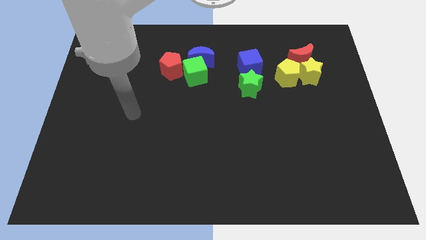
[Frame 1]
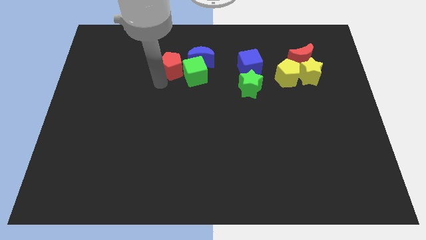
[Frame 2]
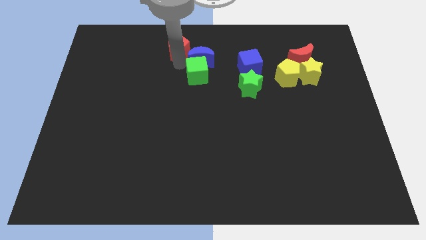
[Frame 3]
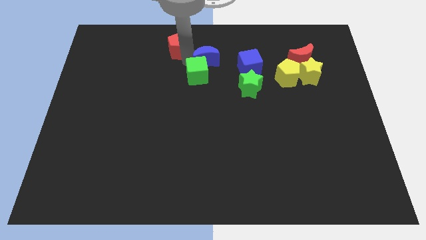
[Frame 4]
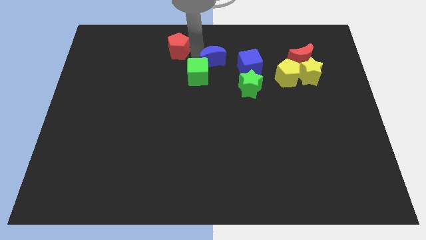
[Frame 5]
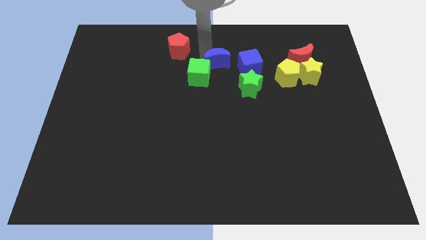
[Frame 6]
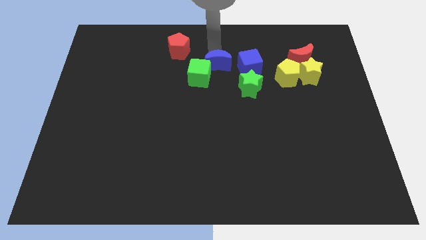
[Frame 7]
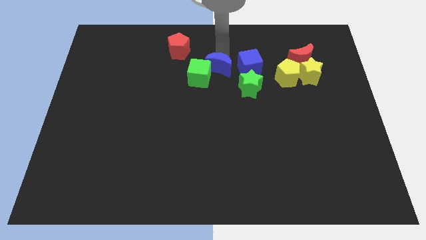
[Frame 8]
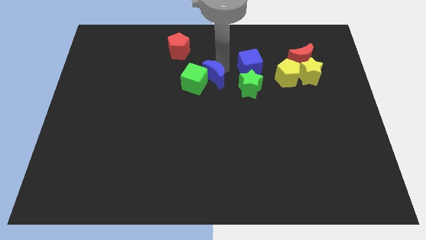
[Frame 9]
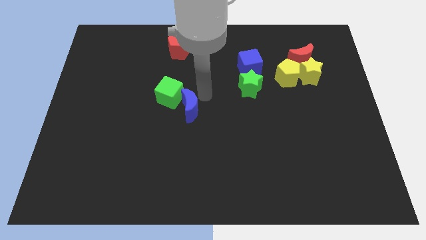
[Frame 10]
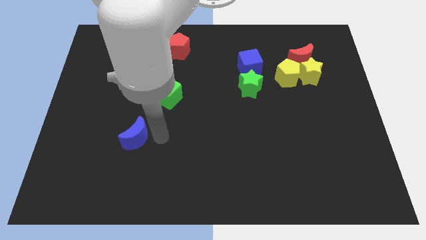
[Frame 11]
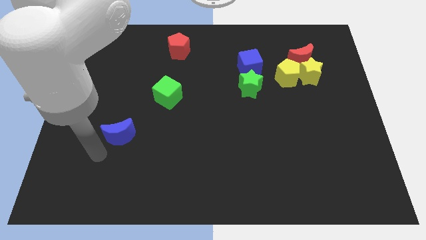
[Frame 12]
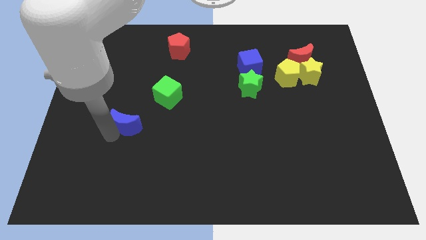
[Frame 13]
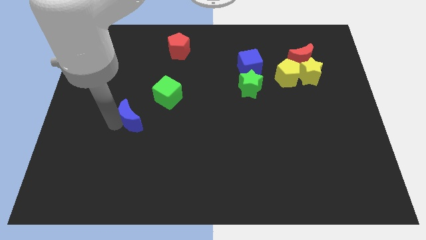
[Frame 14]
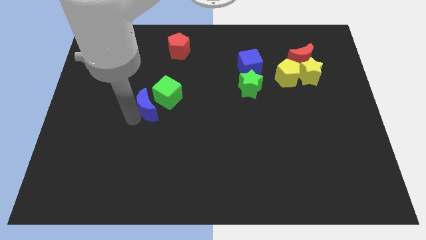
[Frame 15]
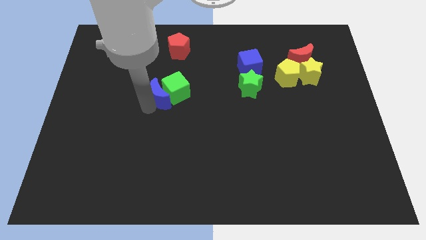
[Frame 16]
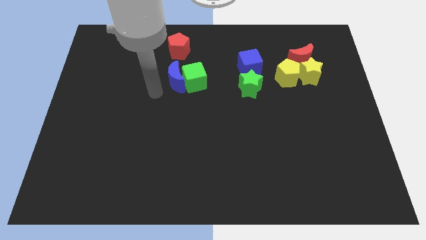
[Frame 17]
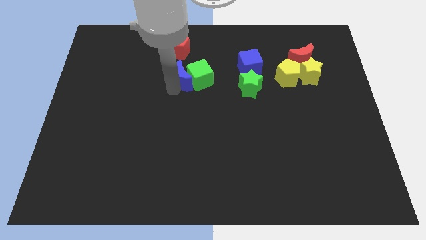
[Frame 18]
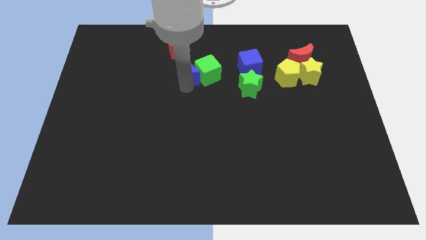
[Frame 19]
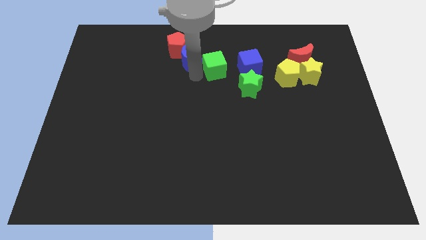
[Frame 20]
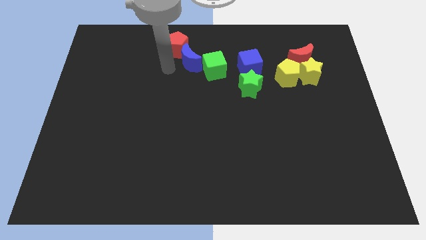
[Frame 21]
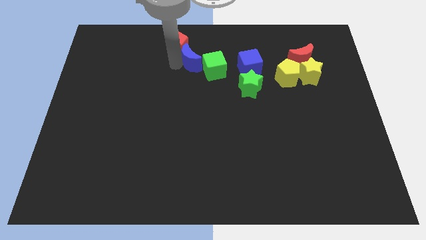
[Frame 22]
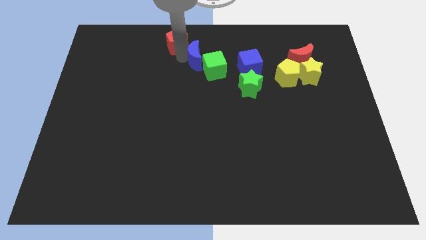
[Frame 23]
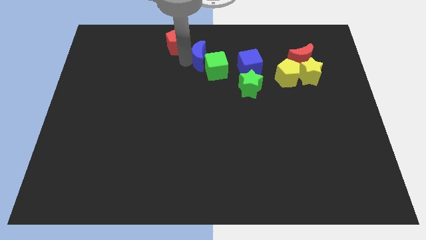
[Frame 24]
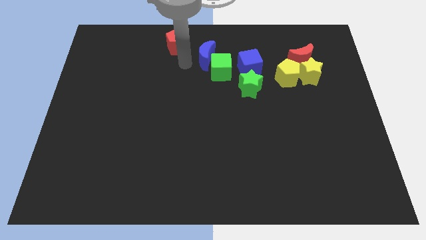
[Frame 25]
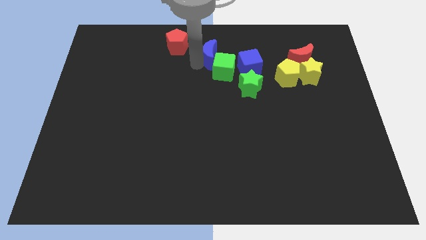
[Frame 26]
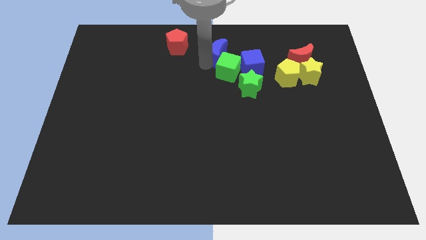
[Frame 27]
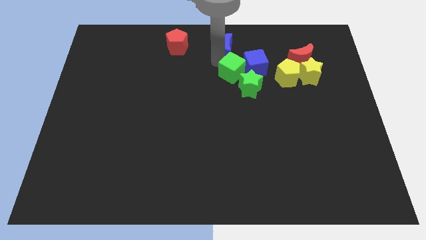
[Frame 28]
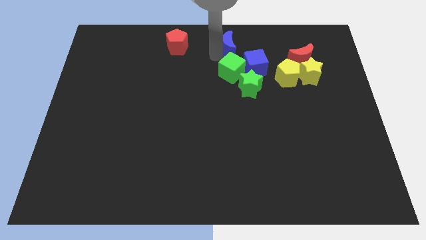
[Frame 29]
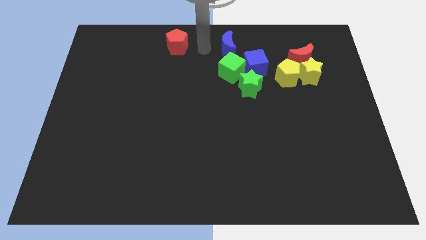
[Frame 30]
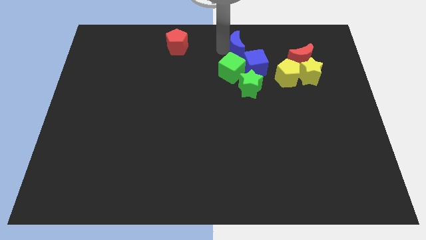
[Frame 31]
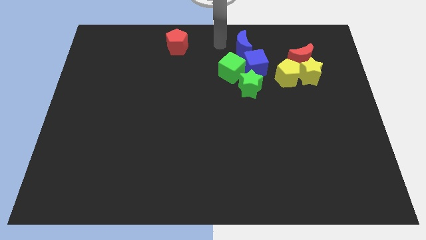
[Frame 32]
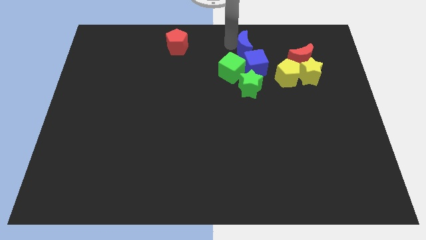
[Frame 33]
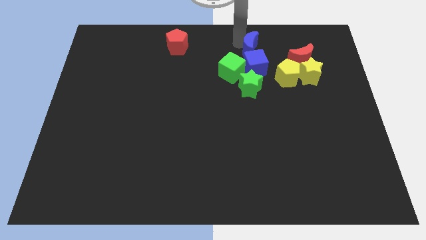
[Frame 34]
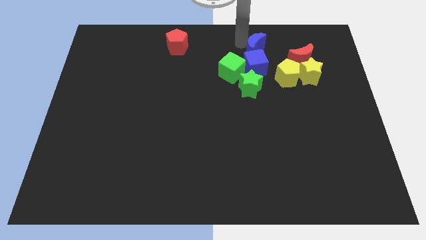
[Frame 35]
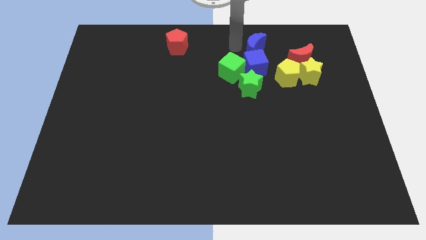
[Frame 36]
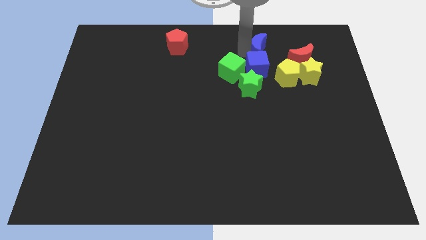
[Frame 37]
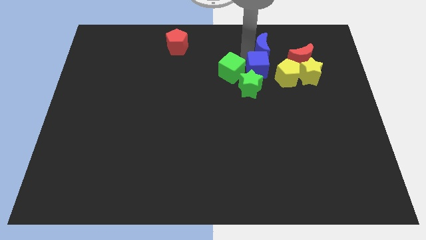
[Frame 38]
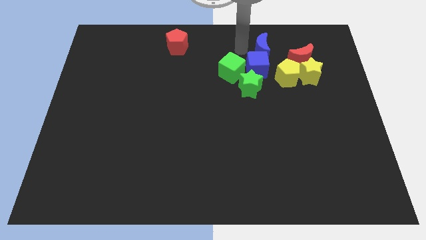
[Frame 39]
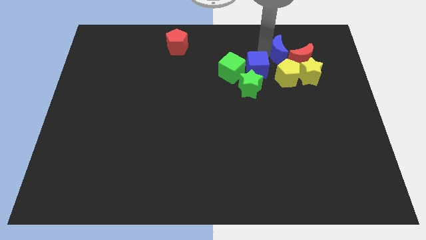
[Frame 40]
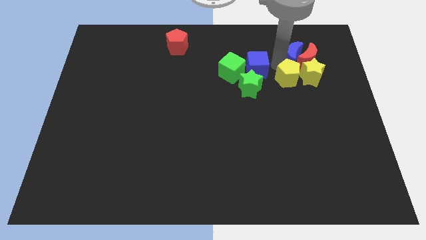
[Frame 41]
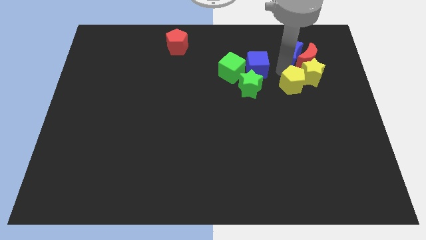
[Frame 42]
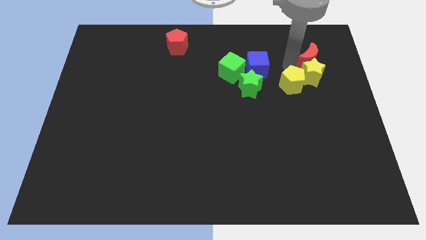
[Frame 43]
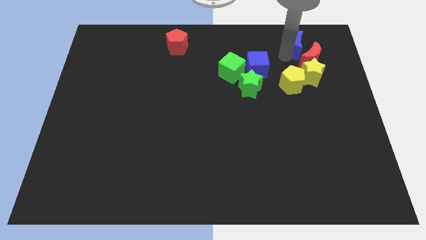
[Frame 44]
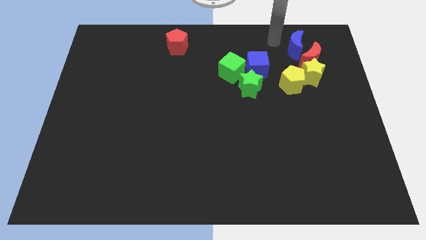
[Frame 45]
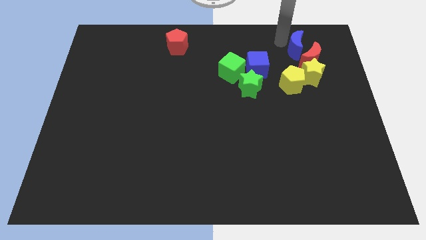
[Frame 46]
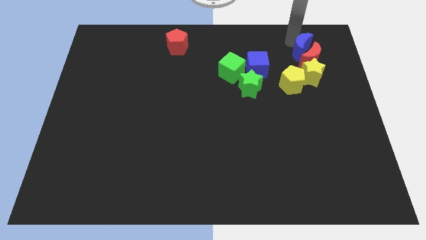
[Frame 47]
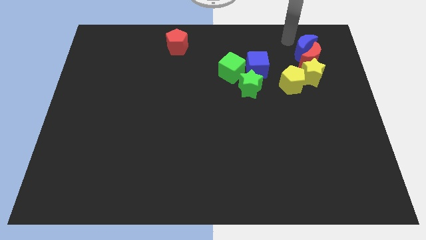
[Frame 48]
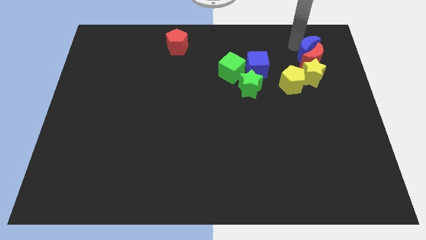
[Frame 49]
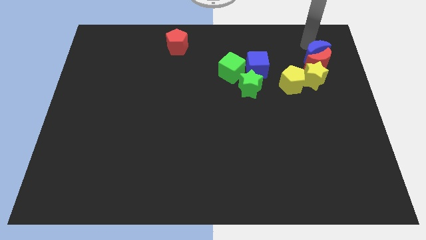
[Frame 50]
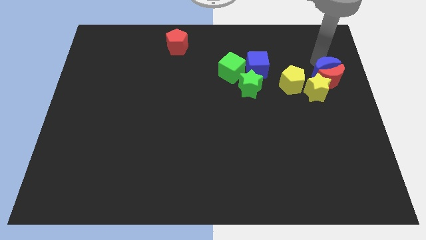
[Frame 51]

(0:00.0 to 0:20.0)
slide the blue moon to the right of the yellow pentagon

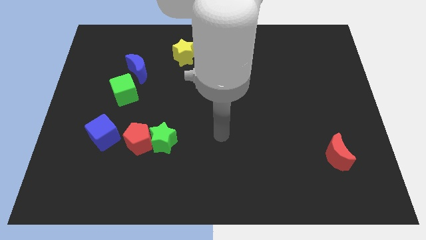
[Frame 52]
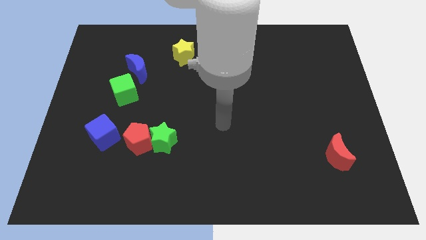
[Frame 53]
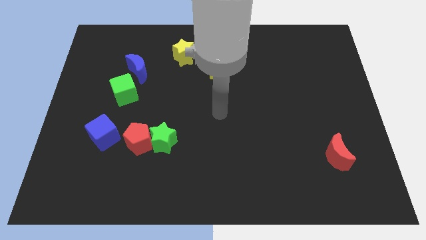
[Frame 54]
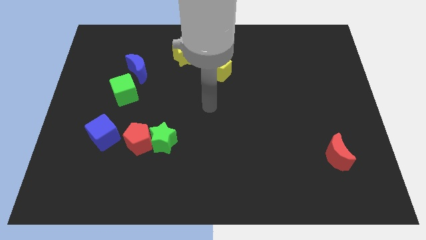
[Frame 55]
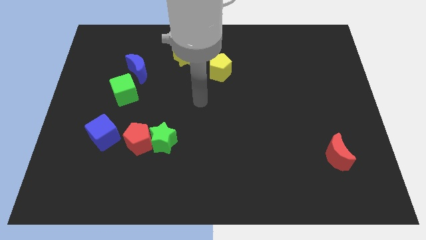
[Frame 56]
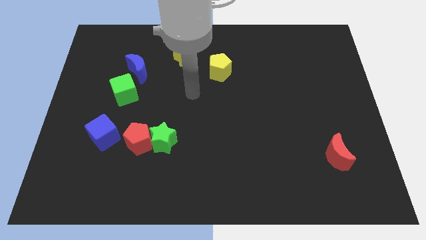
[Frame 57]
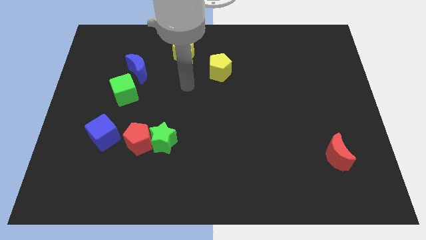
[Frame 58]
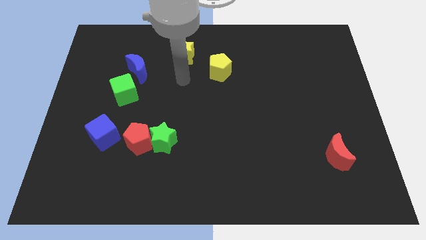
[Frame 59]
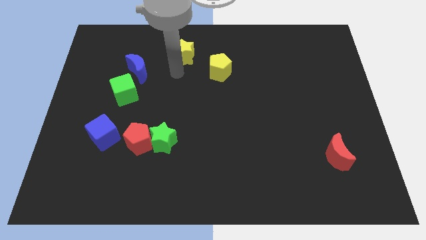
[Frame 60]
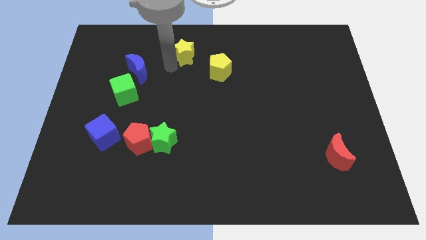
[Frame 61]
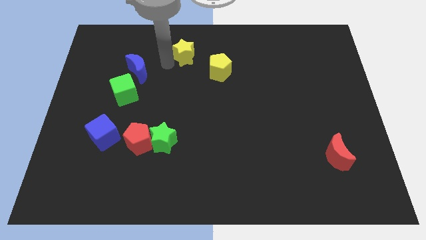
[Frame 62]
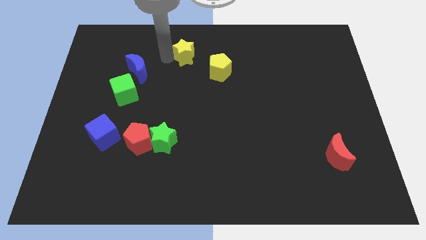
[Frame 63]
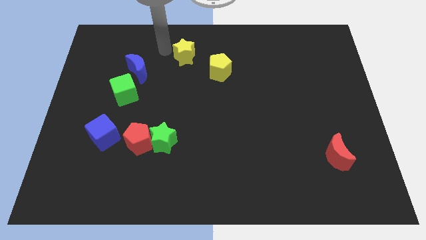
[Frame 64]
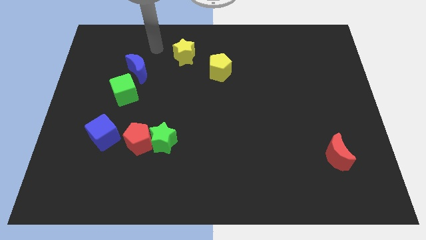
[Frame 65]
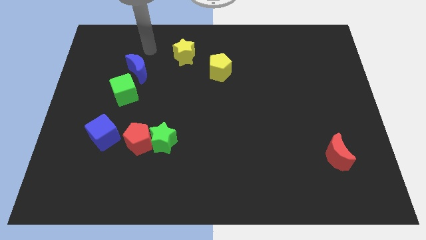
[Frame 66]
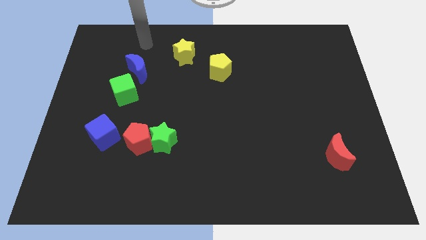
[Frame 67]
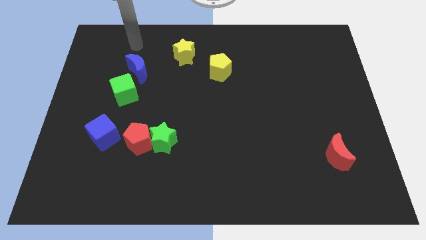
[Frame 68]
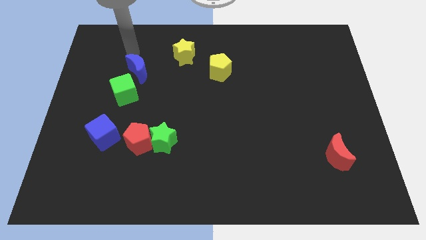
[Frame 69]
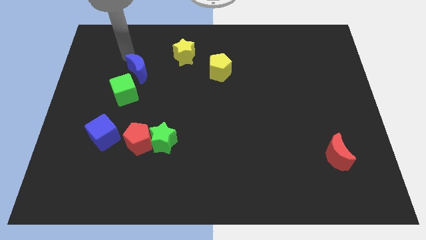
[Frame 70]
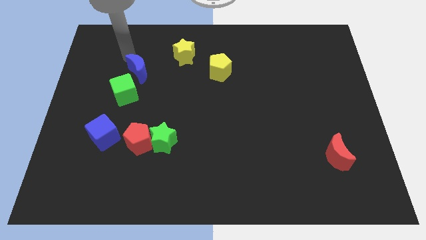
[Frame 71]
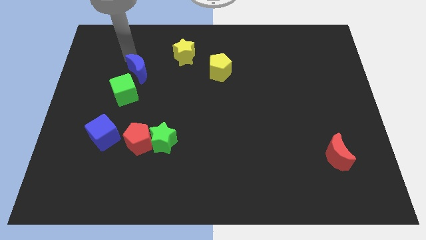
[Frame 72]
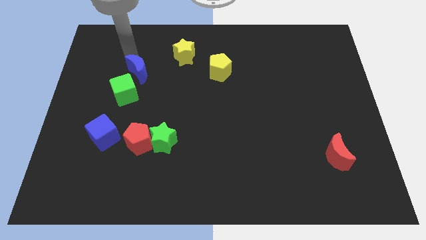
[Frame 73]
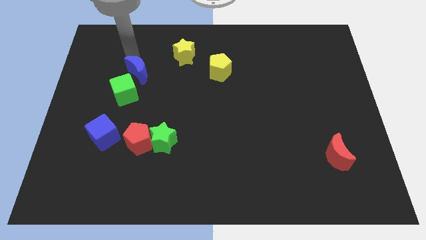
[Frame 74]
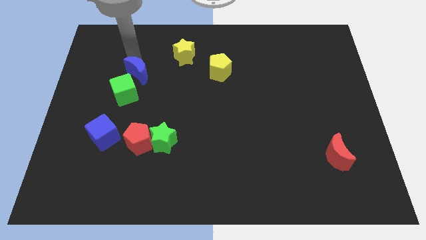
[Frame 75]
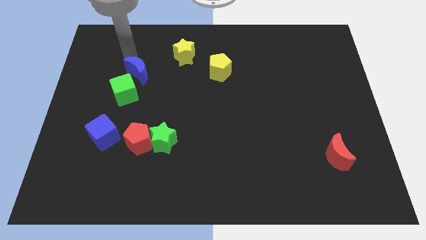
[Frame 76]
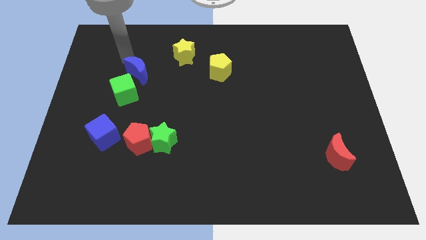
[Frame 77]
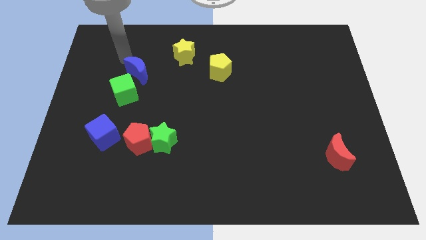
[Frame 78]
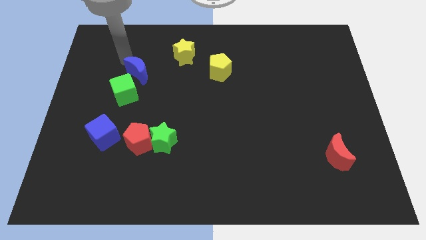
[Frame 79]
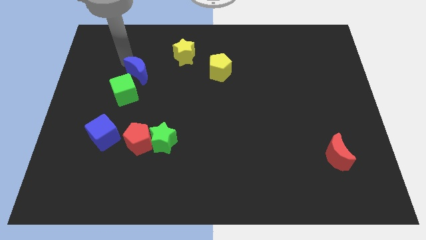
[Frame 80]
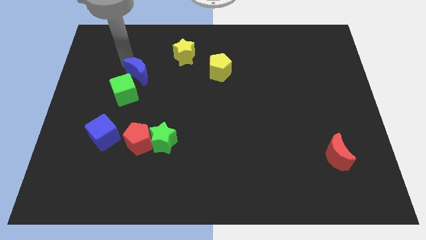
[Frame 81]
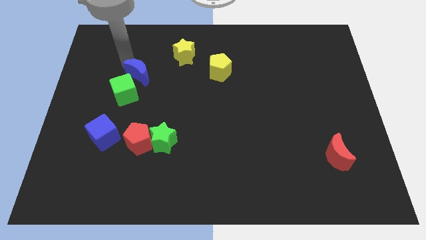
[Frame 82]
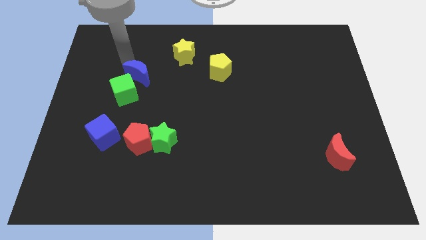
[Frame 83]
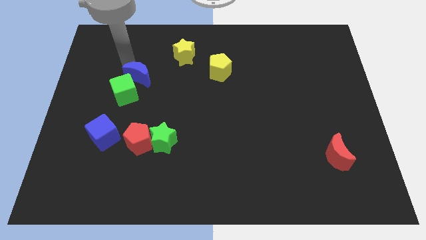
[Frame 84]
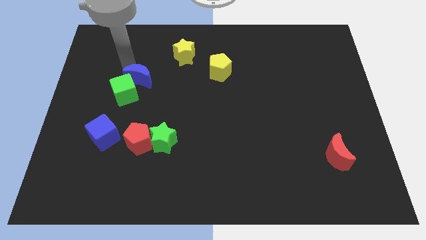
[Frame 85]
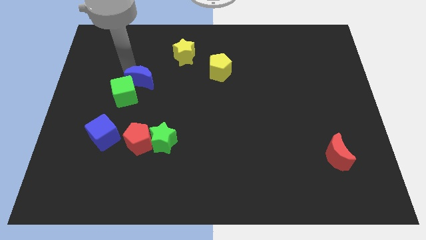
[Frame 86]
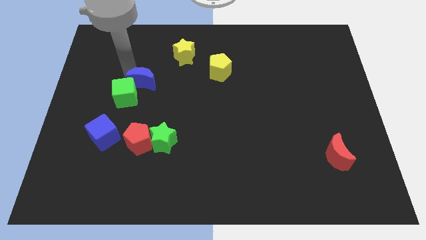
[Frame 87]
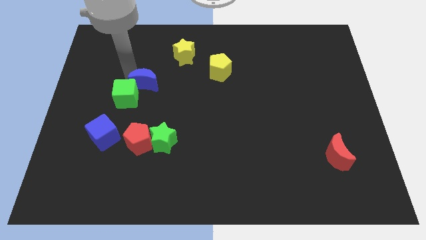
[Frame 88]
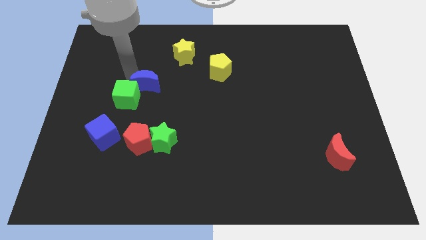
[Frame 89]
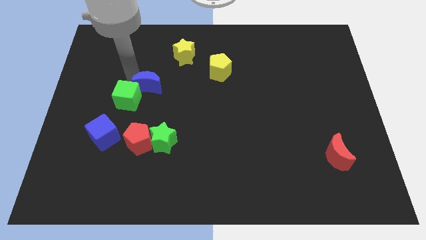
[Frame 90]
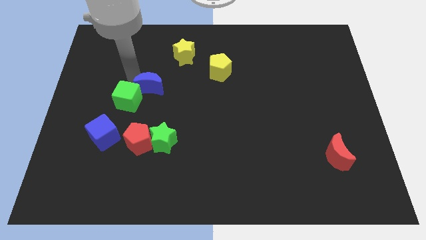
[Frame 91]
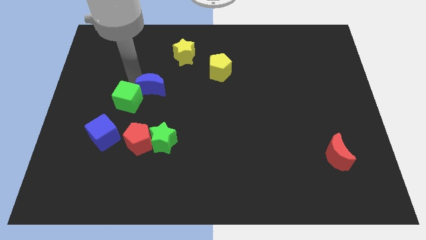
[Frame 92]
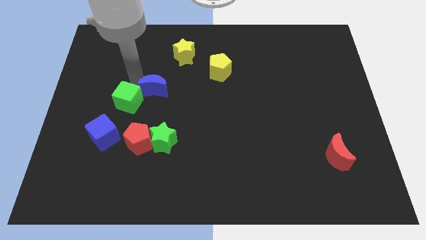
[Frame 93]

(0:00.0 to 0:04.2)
put the blue moon to the top side of the green star
